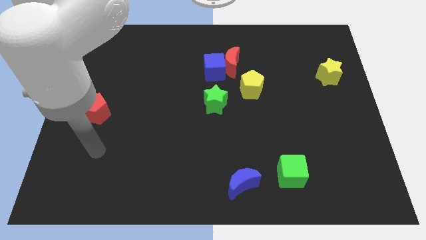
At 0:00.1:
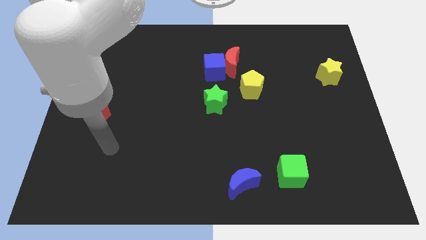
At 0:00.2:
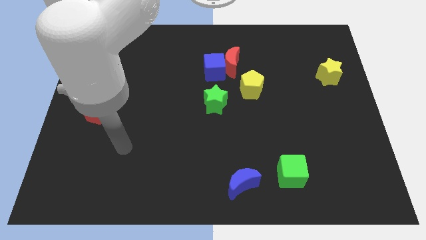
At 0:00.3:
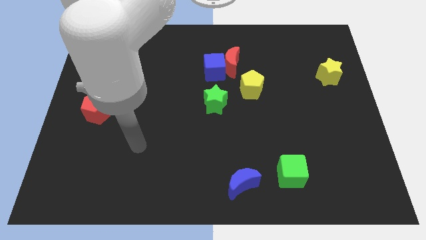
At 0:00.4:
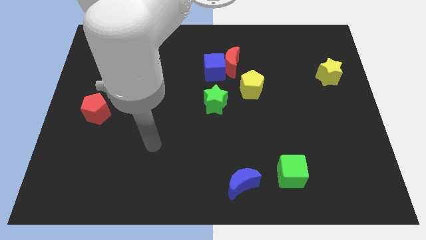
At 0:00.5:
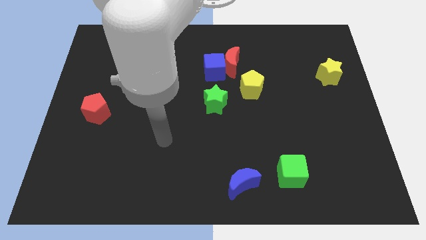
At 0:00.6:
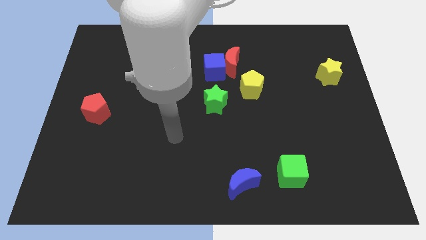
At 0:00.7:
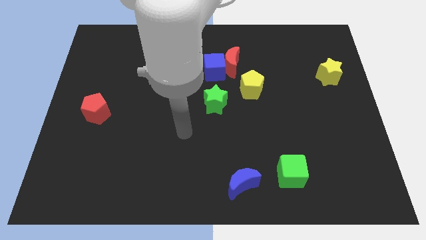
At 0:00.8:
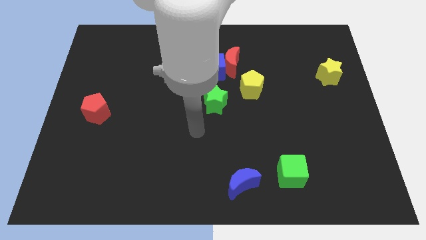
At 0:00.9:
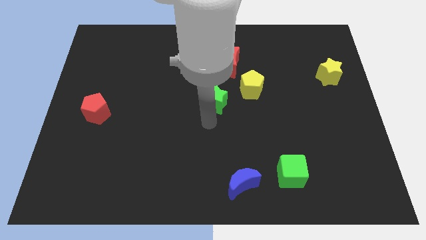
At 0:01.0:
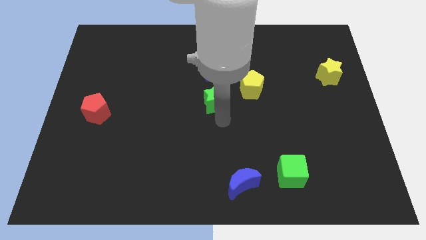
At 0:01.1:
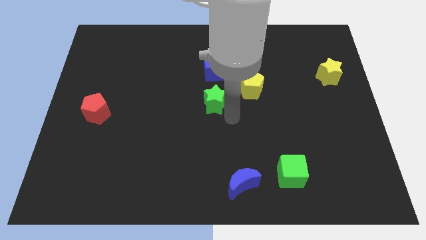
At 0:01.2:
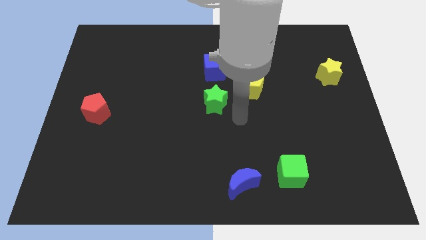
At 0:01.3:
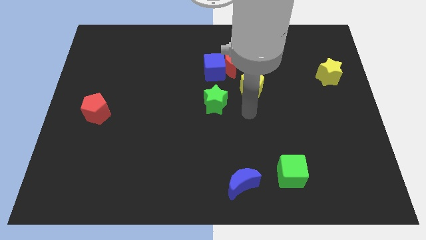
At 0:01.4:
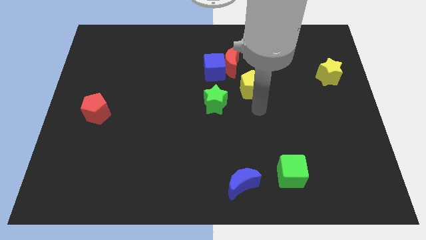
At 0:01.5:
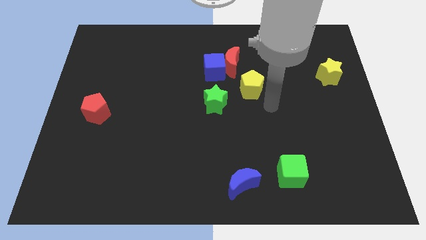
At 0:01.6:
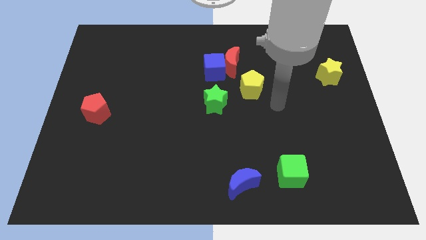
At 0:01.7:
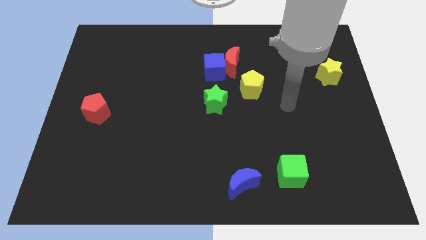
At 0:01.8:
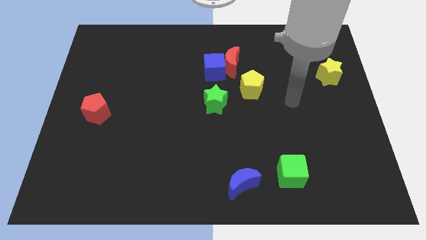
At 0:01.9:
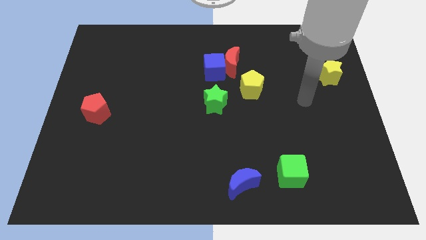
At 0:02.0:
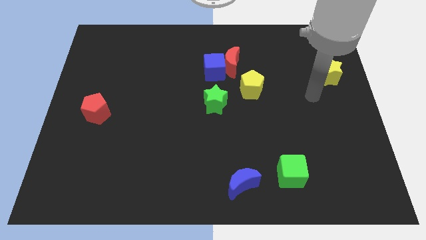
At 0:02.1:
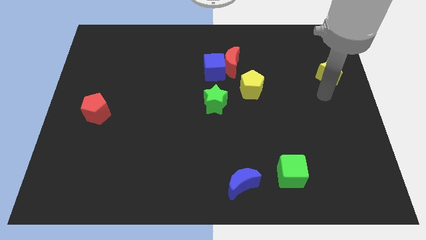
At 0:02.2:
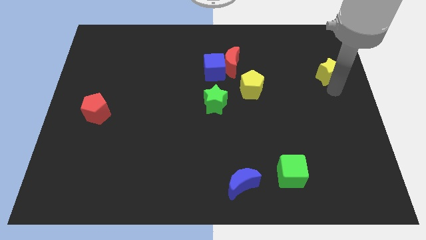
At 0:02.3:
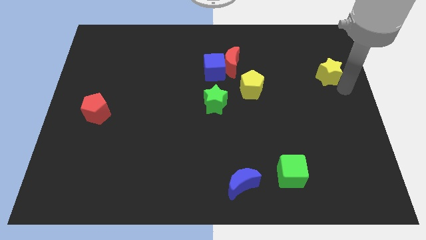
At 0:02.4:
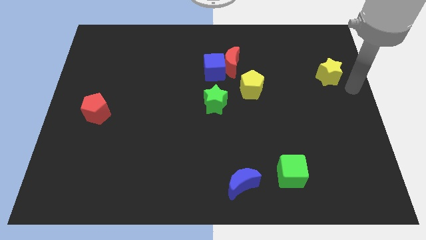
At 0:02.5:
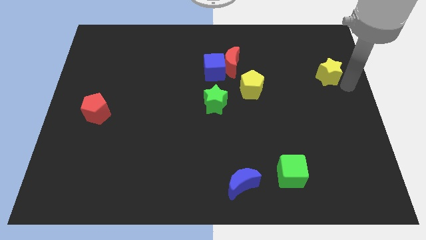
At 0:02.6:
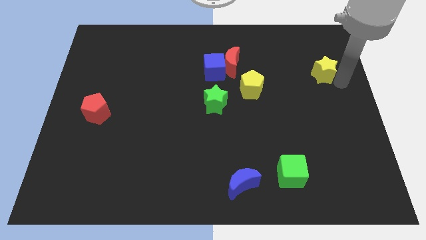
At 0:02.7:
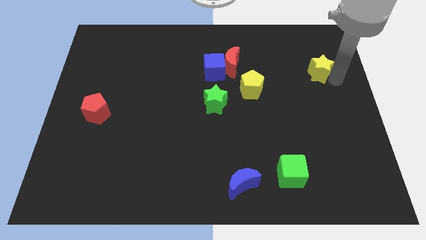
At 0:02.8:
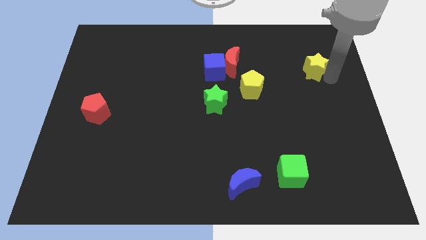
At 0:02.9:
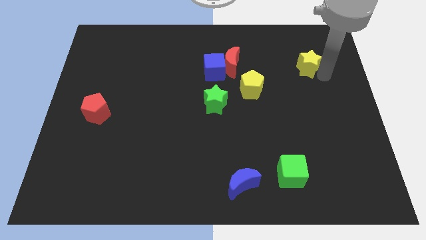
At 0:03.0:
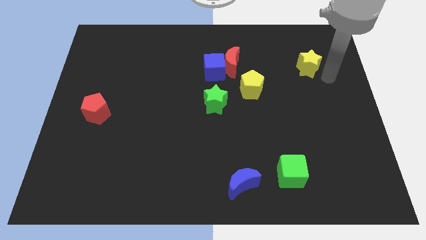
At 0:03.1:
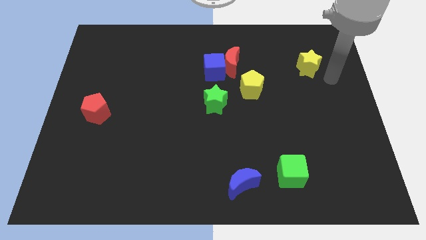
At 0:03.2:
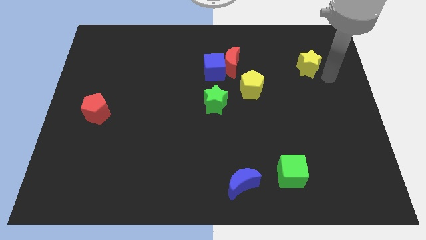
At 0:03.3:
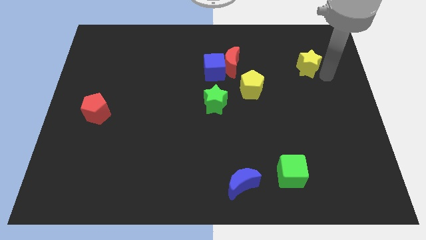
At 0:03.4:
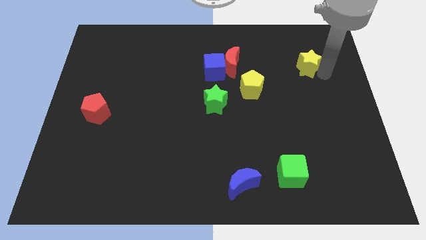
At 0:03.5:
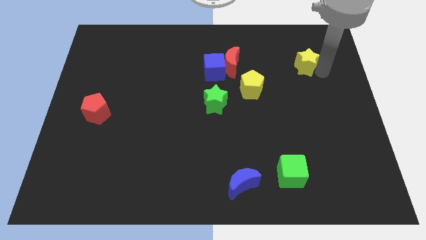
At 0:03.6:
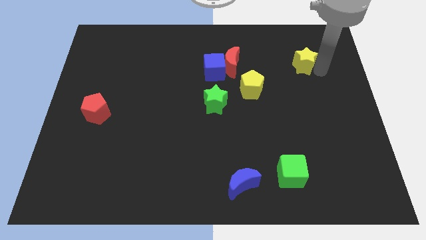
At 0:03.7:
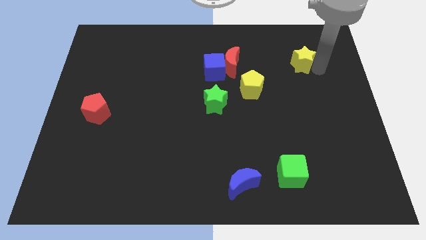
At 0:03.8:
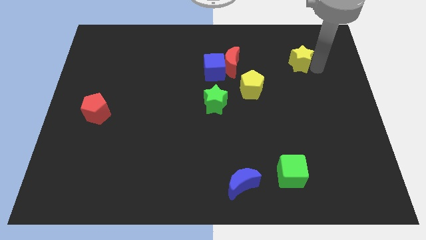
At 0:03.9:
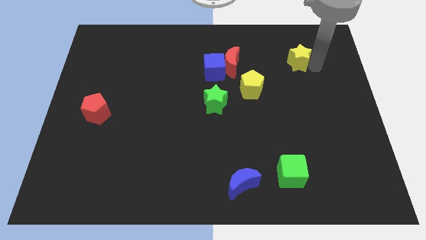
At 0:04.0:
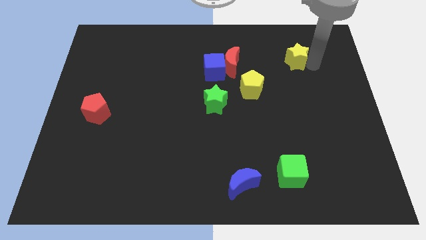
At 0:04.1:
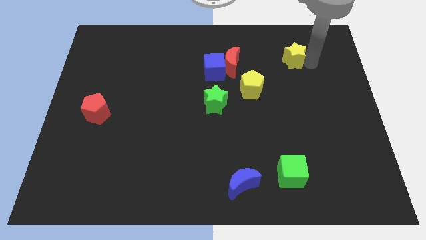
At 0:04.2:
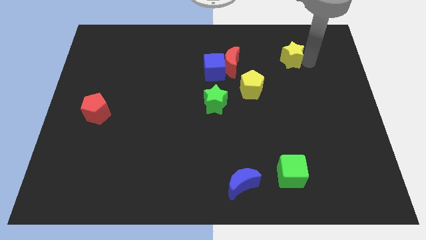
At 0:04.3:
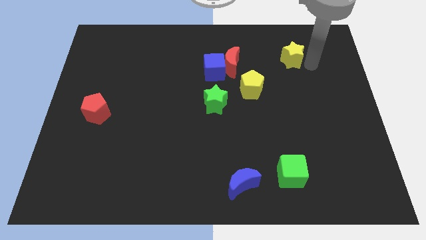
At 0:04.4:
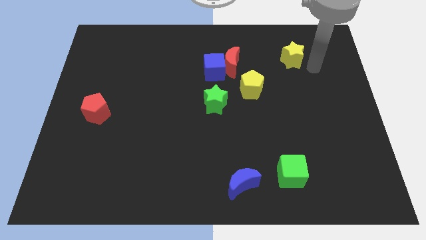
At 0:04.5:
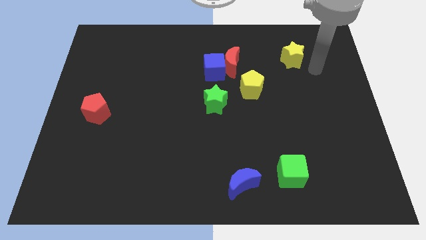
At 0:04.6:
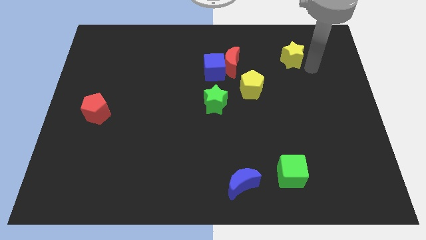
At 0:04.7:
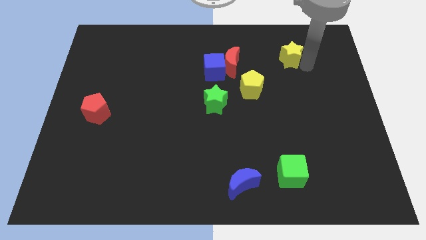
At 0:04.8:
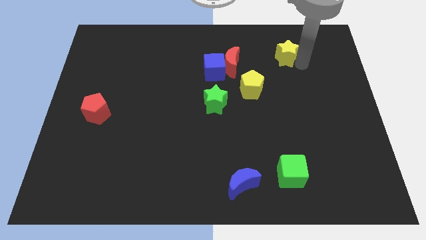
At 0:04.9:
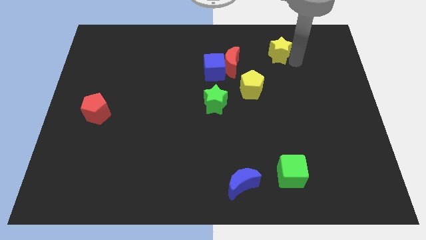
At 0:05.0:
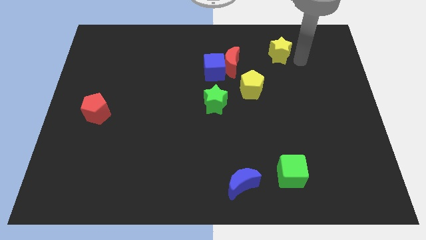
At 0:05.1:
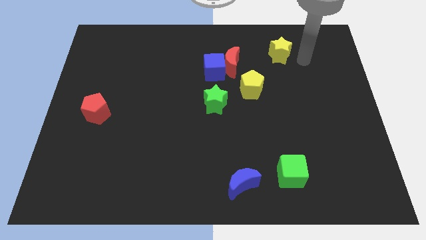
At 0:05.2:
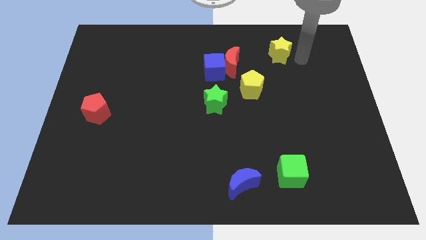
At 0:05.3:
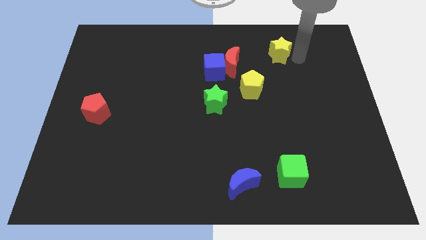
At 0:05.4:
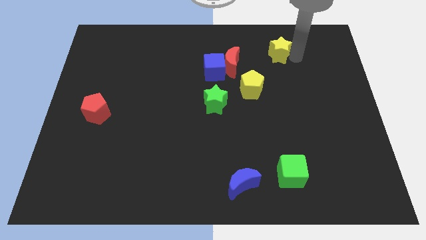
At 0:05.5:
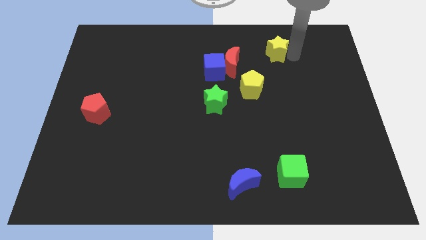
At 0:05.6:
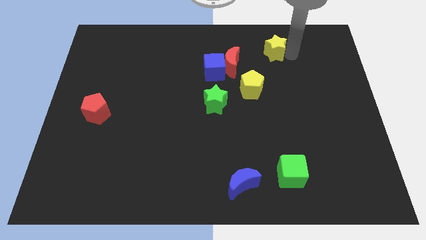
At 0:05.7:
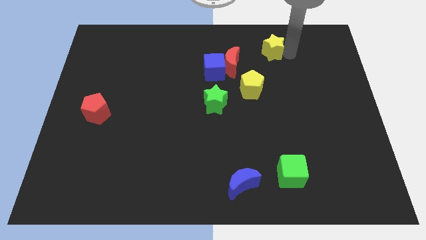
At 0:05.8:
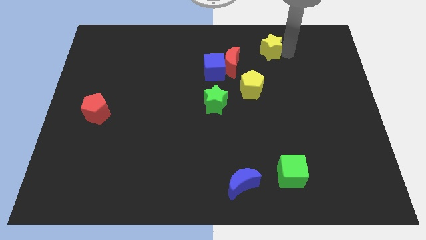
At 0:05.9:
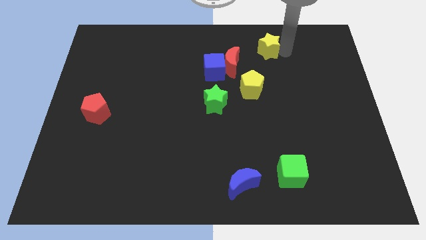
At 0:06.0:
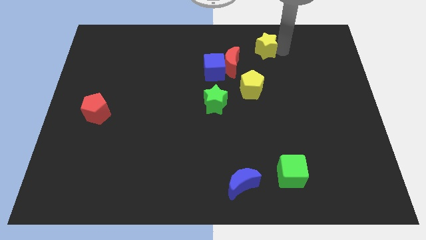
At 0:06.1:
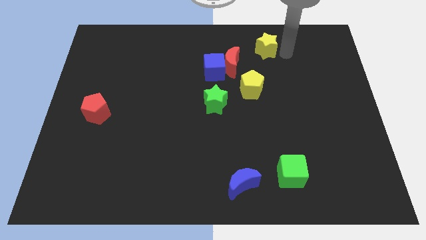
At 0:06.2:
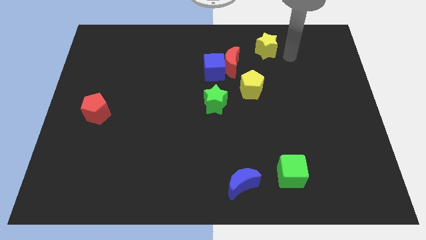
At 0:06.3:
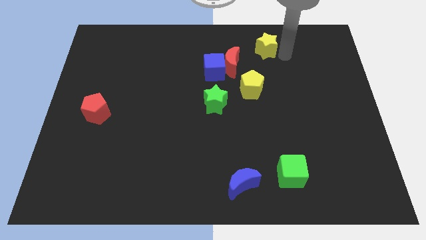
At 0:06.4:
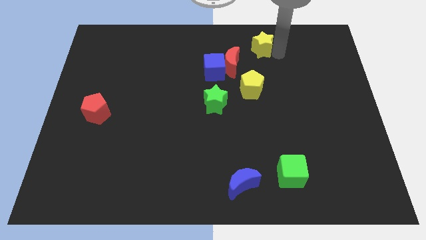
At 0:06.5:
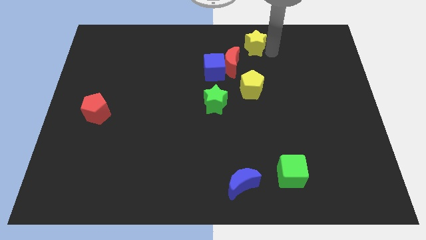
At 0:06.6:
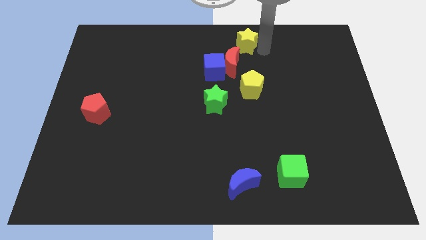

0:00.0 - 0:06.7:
push the yellow star to the towards your base
